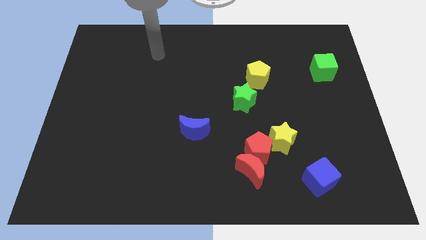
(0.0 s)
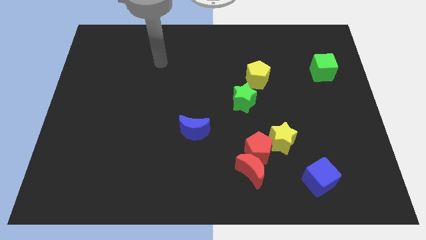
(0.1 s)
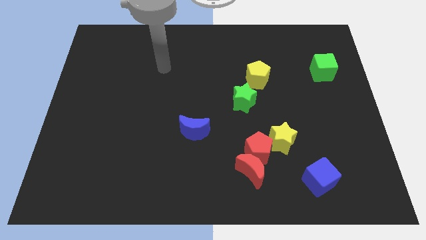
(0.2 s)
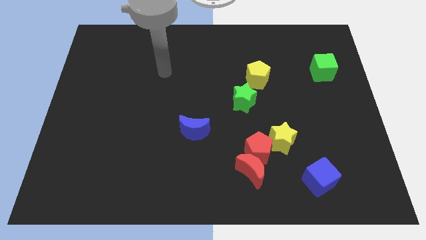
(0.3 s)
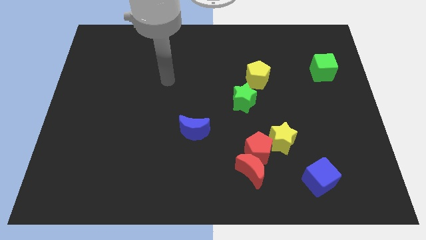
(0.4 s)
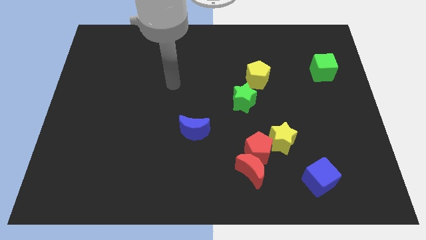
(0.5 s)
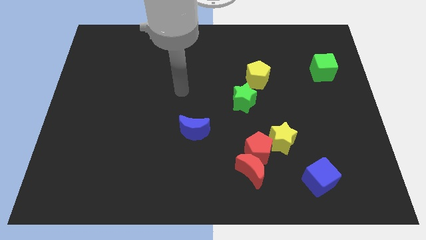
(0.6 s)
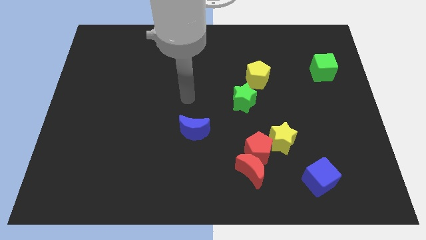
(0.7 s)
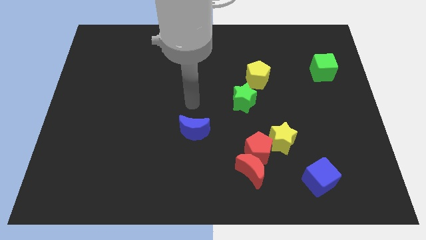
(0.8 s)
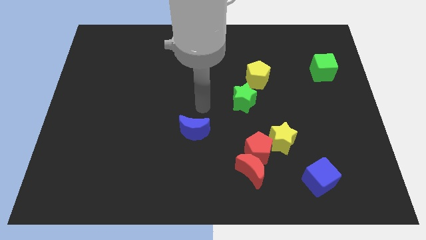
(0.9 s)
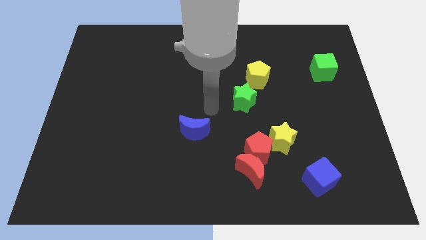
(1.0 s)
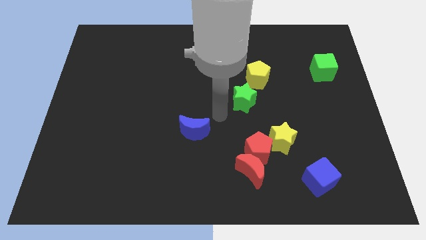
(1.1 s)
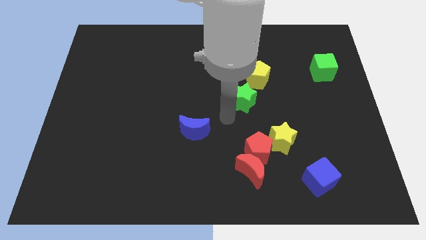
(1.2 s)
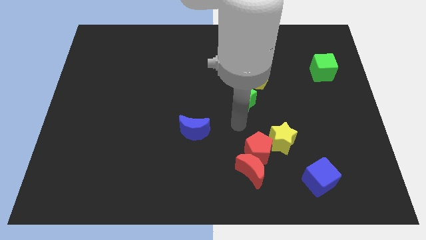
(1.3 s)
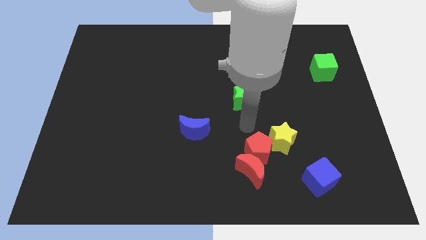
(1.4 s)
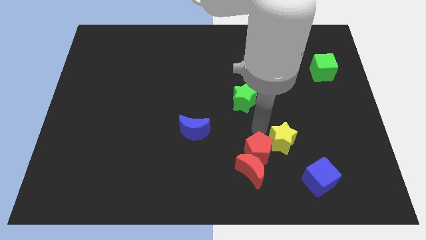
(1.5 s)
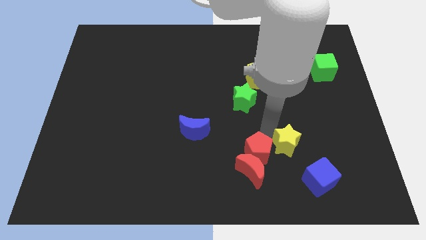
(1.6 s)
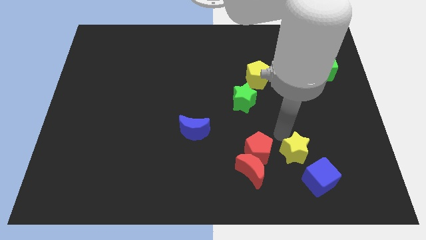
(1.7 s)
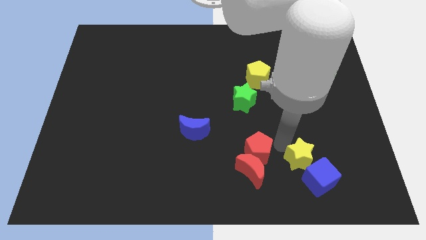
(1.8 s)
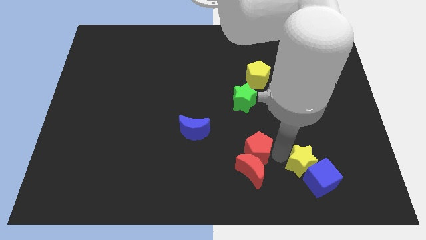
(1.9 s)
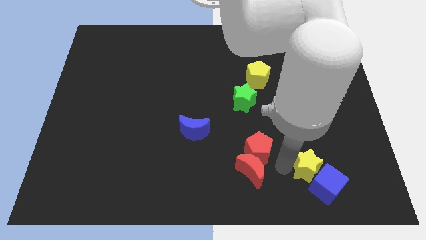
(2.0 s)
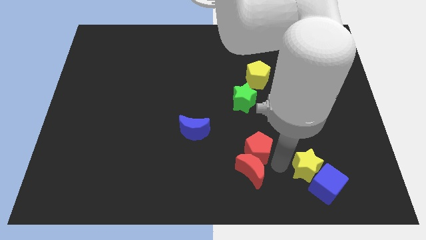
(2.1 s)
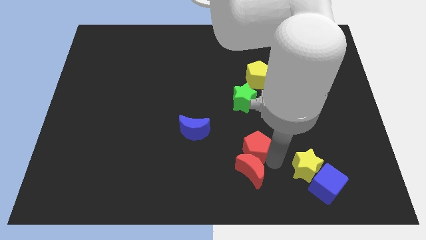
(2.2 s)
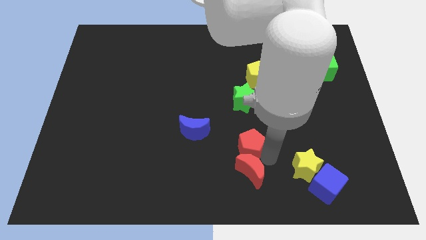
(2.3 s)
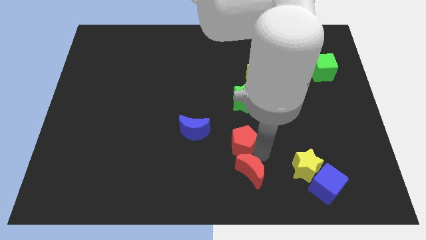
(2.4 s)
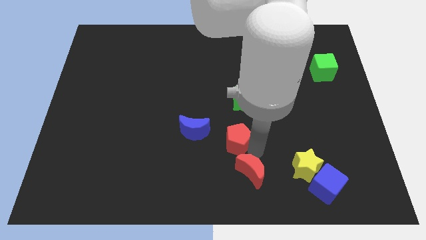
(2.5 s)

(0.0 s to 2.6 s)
separate the red pentagon from the red moon and yellow star

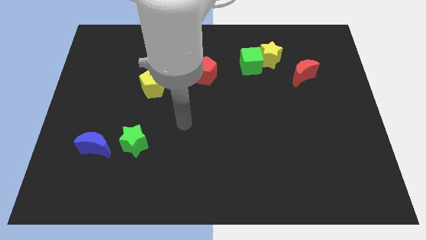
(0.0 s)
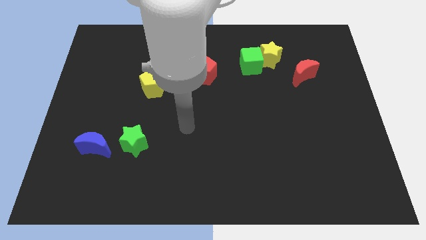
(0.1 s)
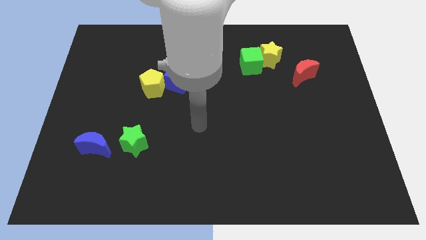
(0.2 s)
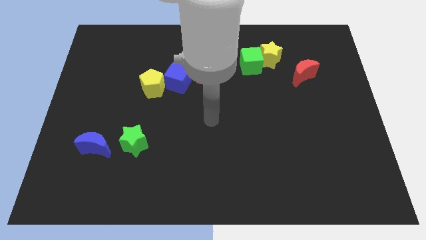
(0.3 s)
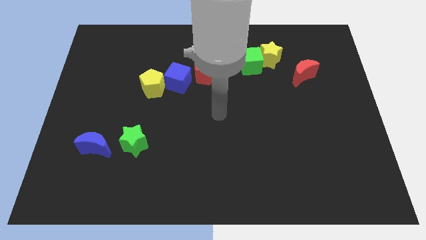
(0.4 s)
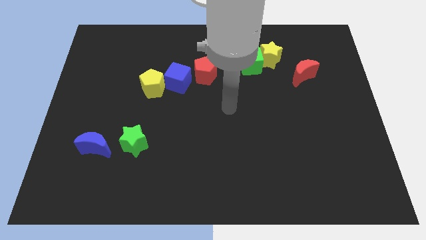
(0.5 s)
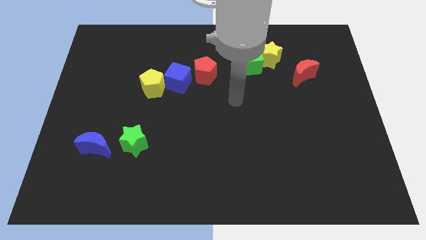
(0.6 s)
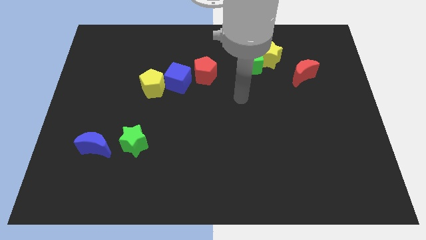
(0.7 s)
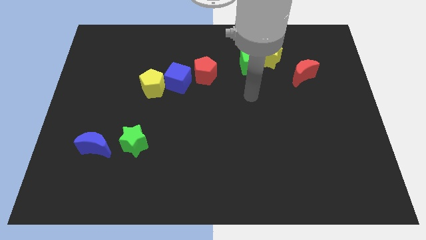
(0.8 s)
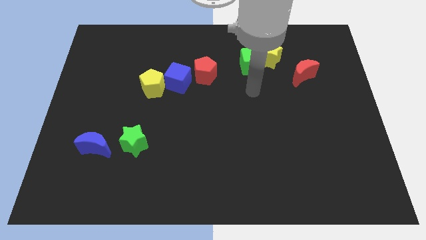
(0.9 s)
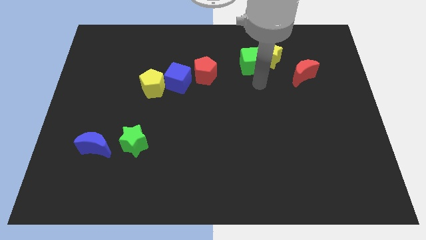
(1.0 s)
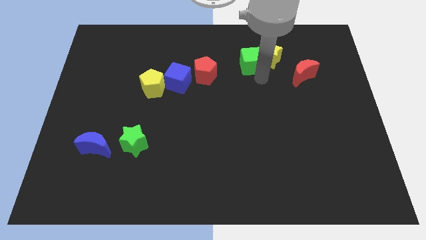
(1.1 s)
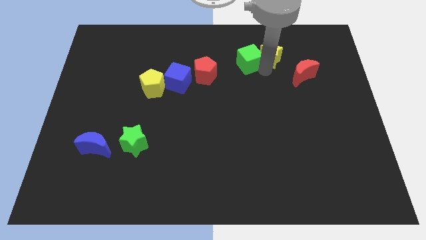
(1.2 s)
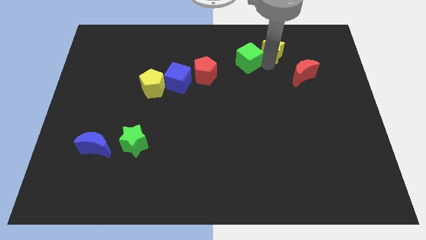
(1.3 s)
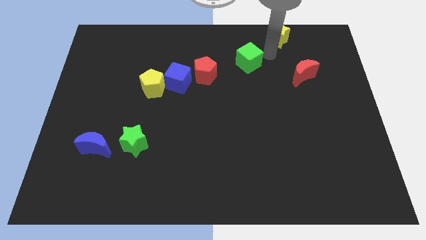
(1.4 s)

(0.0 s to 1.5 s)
pull the green cube apart from the yellow star

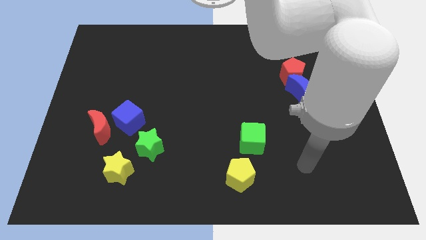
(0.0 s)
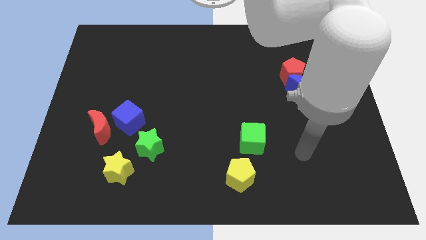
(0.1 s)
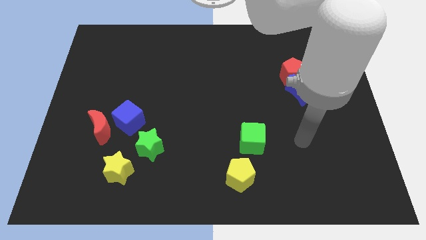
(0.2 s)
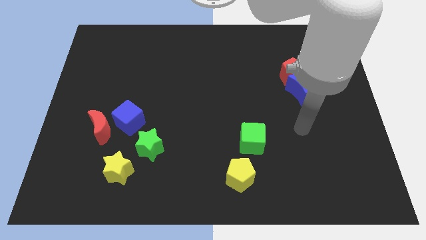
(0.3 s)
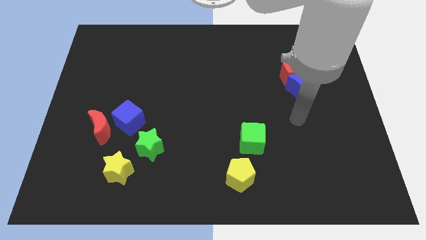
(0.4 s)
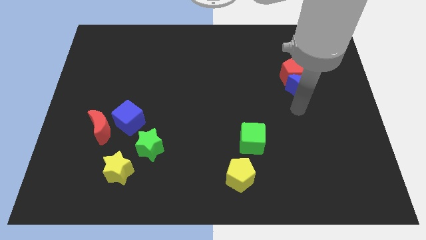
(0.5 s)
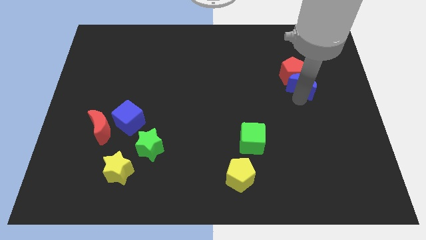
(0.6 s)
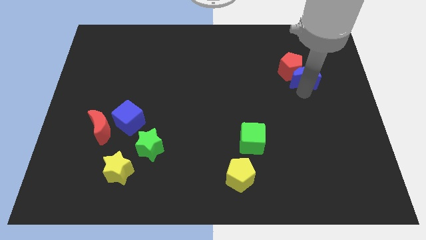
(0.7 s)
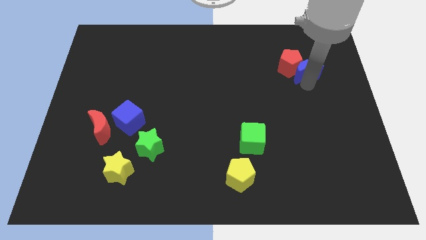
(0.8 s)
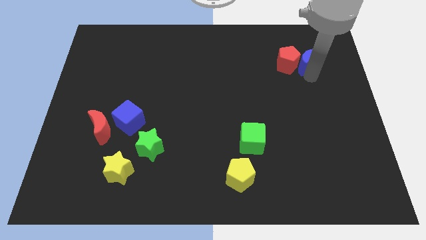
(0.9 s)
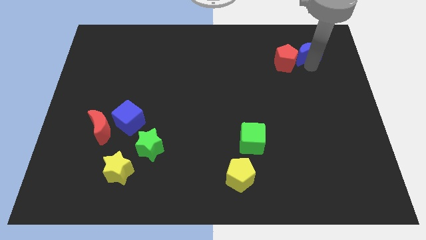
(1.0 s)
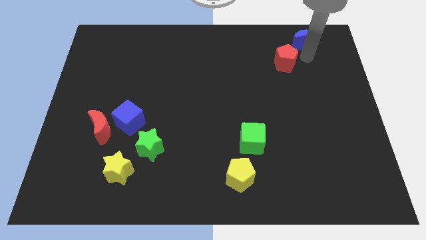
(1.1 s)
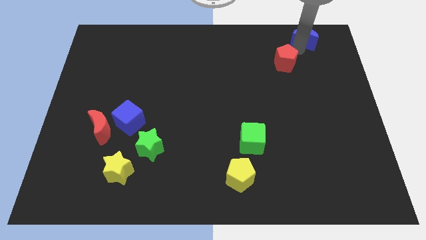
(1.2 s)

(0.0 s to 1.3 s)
pull the red pentagon apart from the blue moon

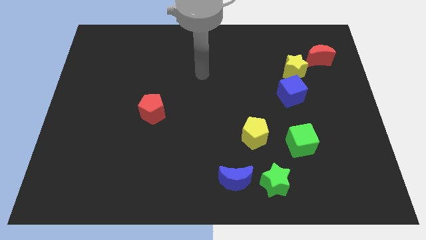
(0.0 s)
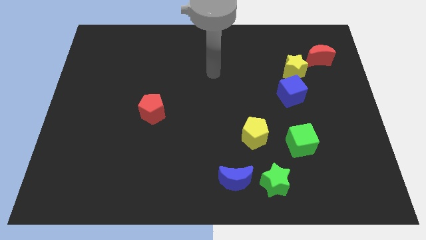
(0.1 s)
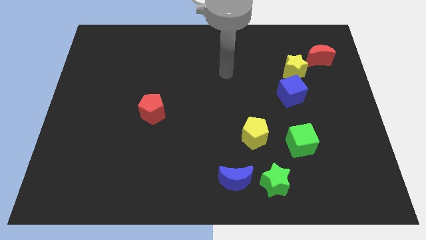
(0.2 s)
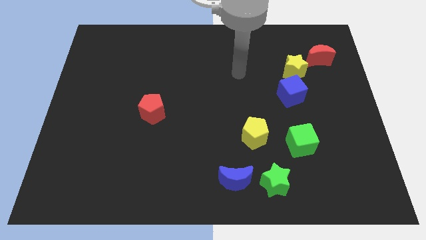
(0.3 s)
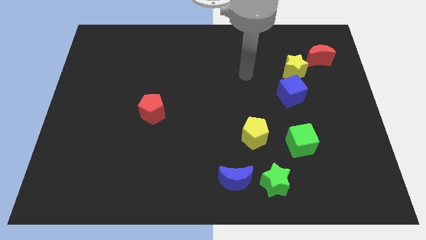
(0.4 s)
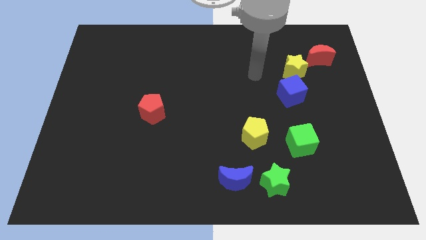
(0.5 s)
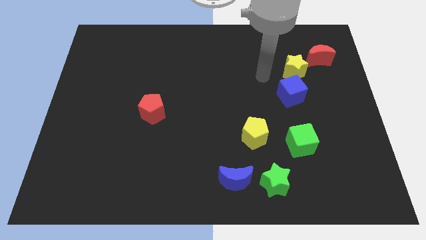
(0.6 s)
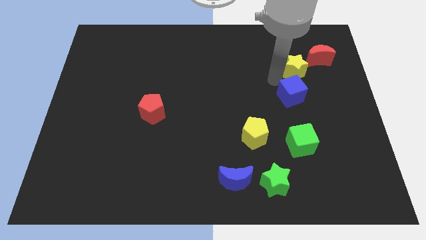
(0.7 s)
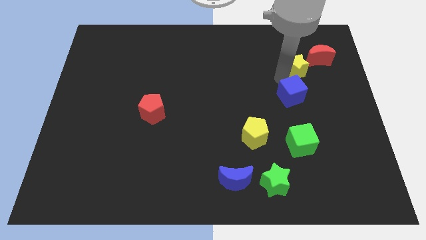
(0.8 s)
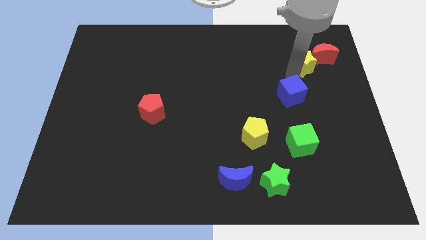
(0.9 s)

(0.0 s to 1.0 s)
pull the blue cube apart from the yellow star

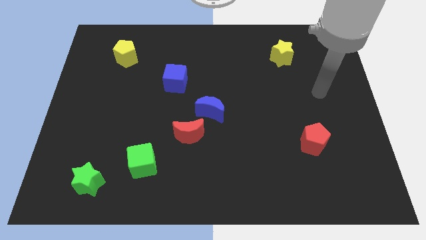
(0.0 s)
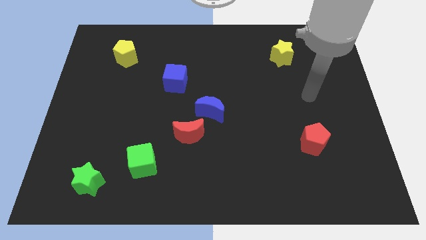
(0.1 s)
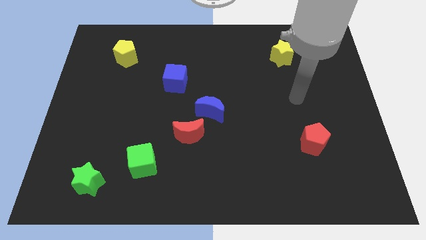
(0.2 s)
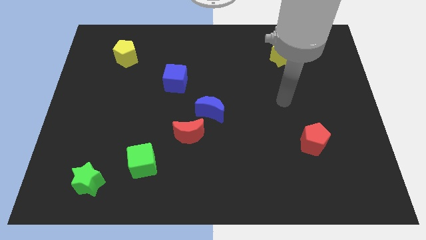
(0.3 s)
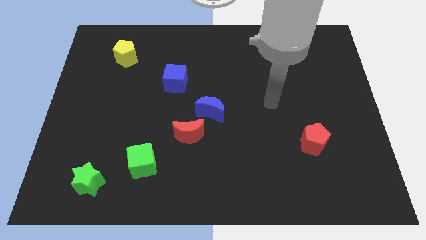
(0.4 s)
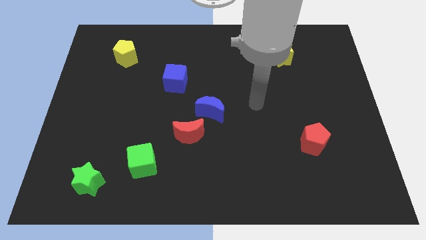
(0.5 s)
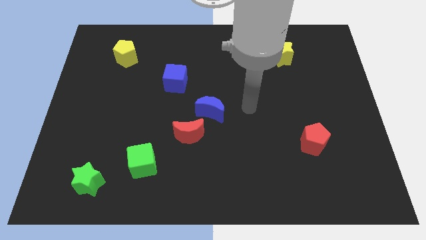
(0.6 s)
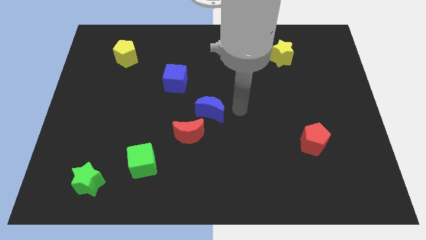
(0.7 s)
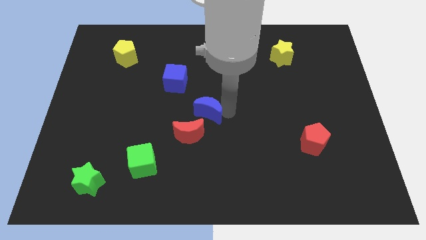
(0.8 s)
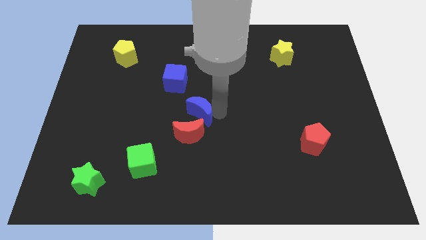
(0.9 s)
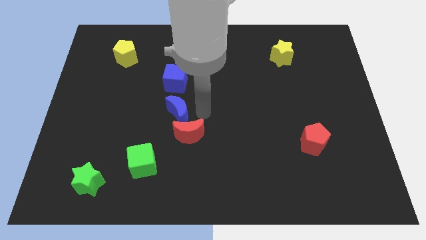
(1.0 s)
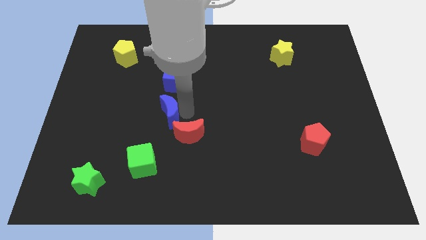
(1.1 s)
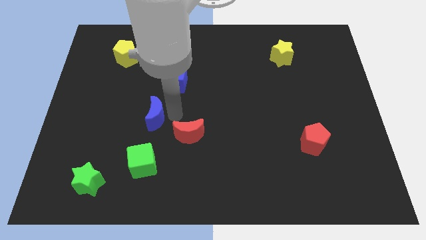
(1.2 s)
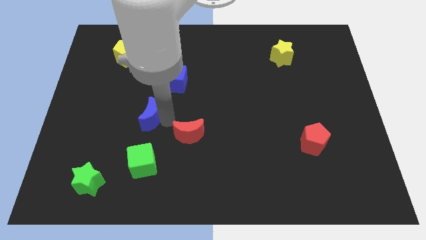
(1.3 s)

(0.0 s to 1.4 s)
move the red moon away from the blue moon

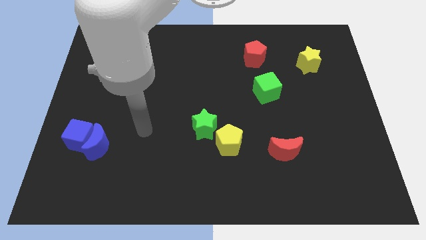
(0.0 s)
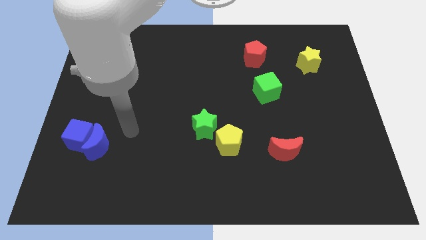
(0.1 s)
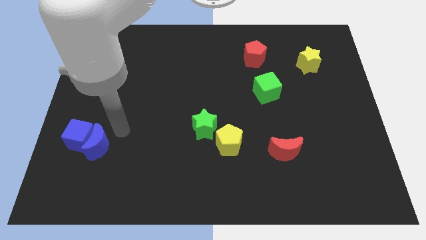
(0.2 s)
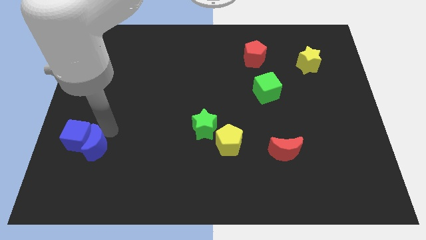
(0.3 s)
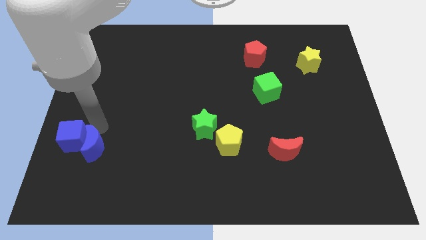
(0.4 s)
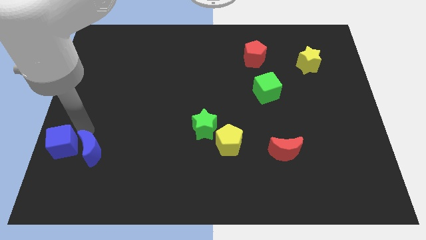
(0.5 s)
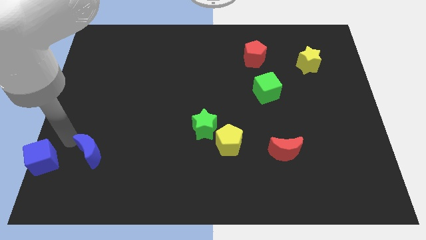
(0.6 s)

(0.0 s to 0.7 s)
separate the blue moon from the blue cube

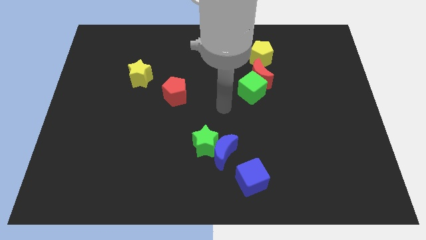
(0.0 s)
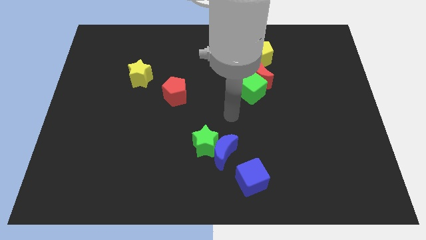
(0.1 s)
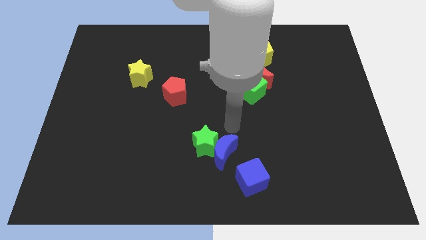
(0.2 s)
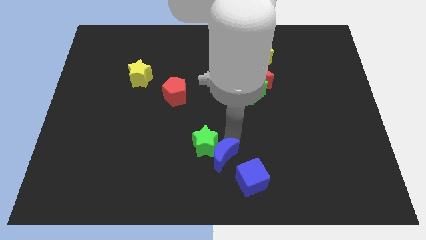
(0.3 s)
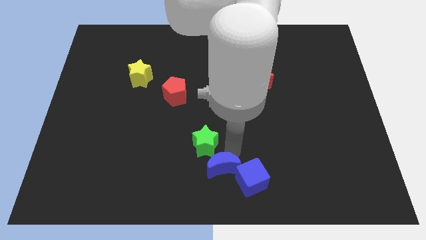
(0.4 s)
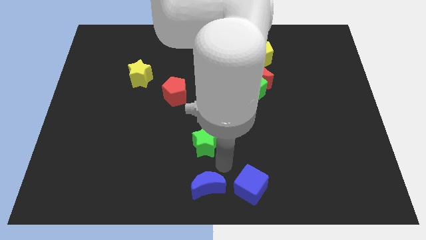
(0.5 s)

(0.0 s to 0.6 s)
move the green star away from the blue moon

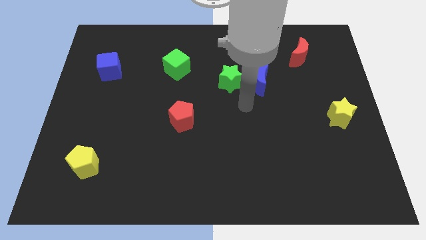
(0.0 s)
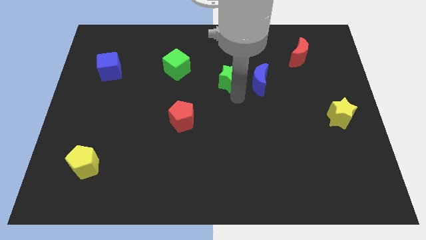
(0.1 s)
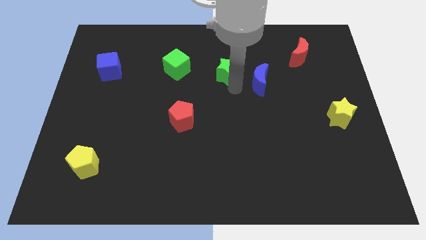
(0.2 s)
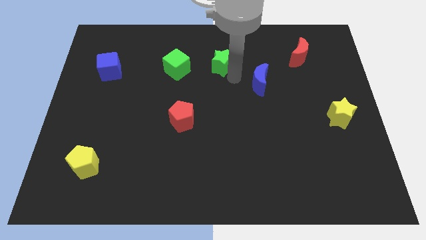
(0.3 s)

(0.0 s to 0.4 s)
move the blue moon away from the green star
